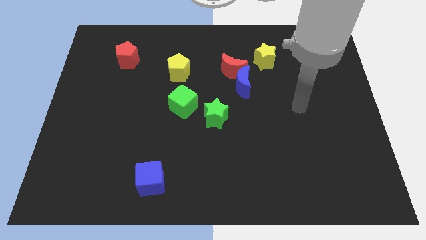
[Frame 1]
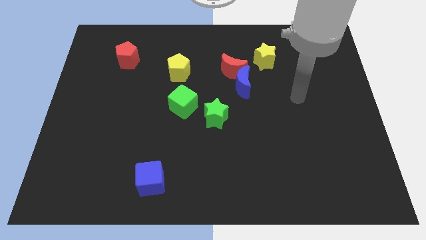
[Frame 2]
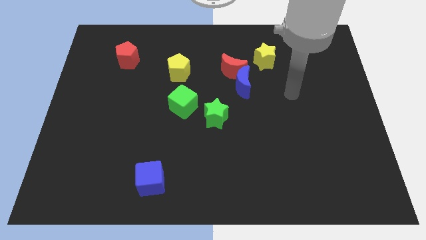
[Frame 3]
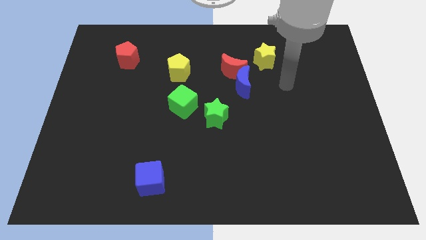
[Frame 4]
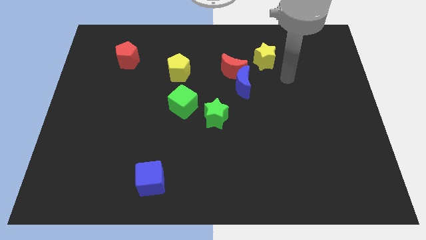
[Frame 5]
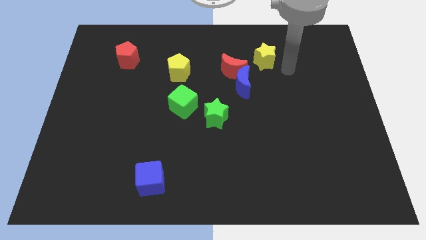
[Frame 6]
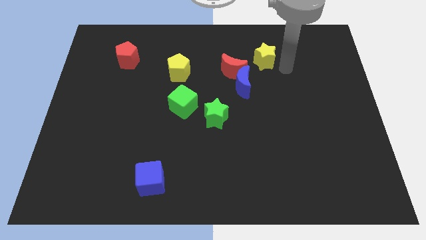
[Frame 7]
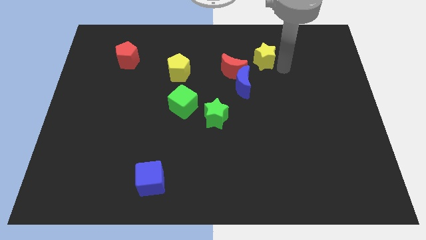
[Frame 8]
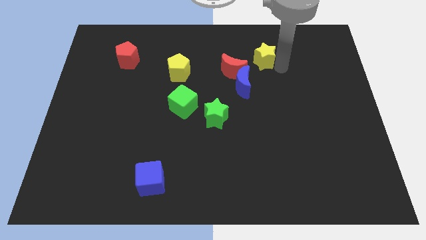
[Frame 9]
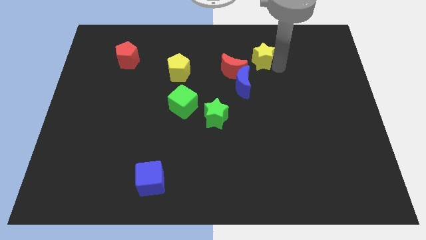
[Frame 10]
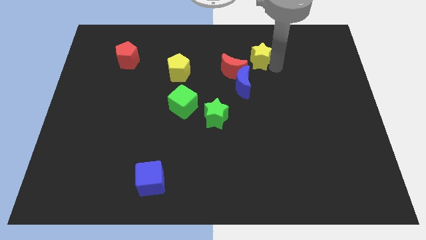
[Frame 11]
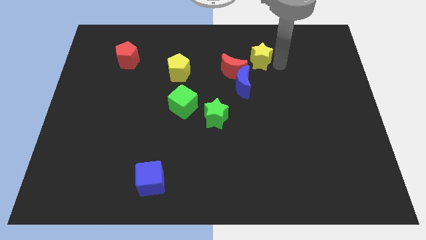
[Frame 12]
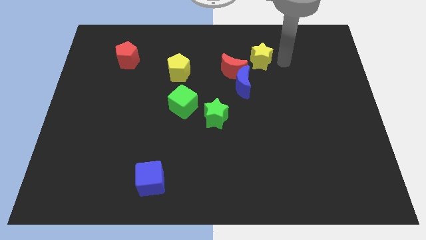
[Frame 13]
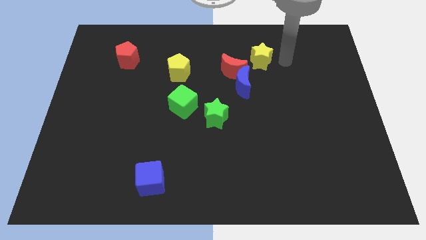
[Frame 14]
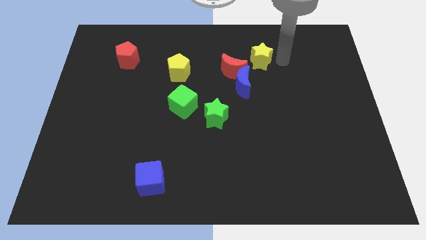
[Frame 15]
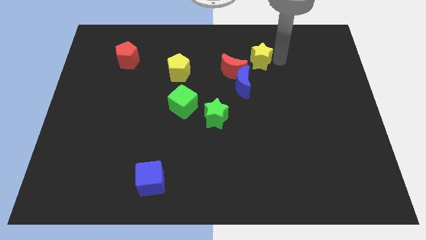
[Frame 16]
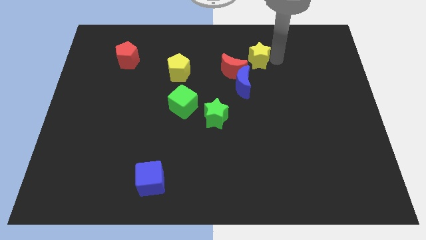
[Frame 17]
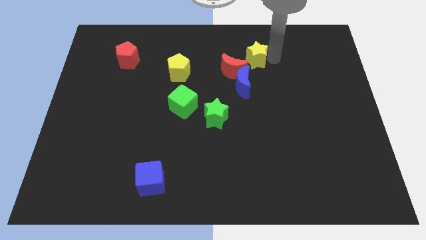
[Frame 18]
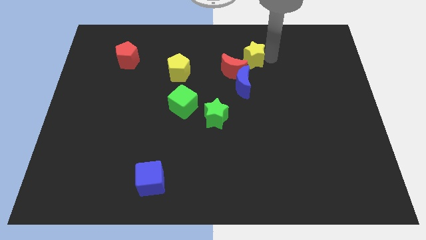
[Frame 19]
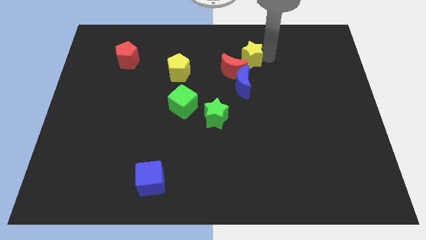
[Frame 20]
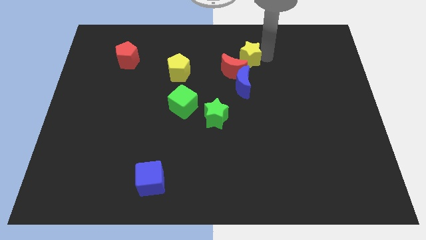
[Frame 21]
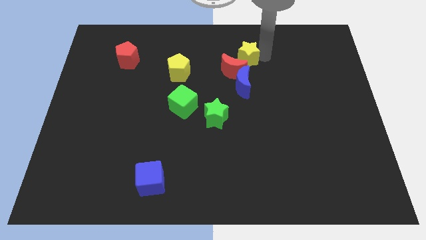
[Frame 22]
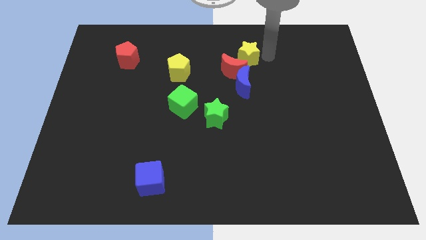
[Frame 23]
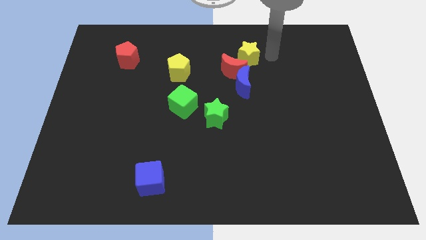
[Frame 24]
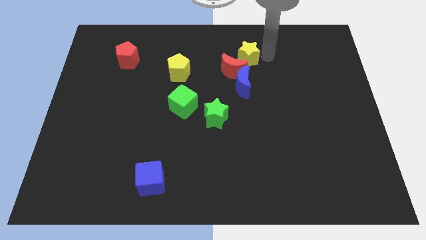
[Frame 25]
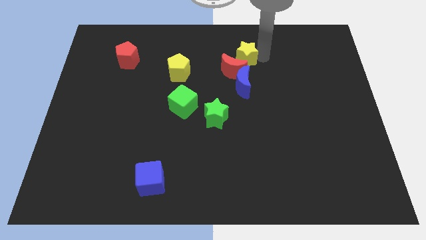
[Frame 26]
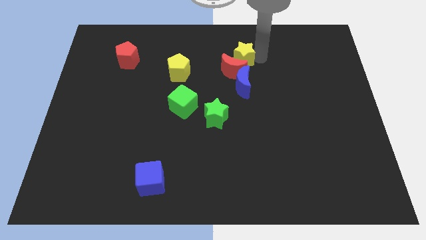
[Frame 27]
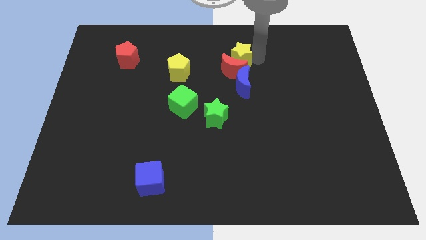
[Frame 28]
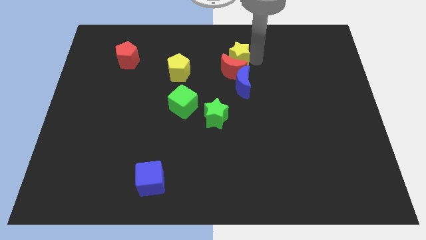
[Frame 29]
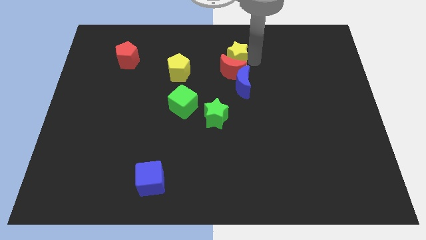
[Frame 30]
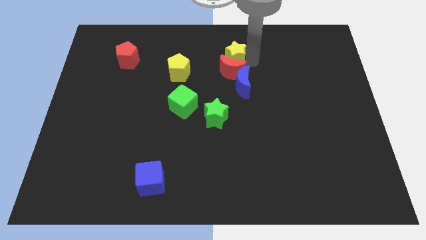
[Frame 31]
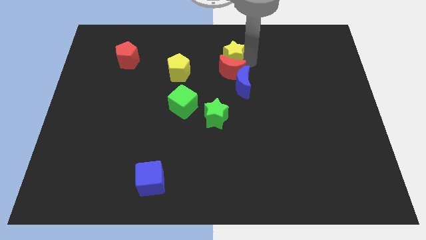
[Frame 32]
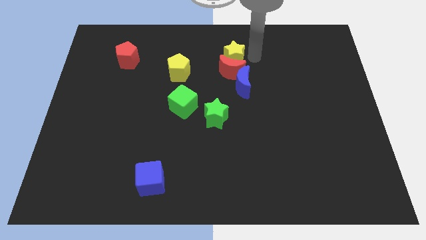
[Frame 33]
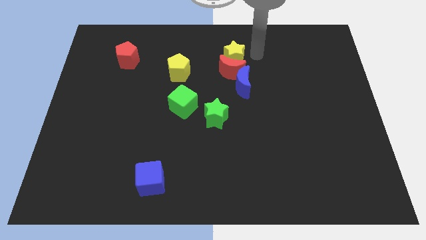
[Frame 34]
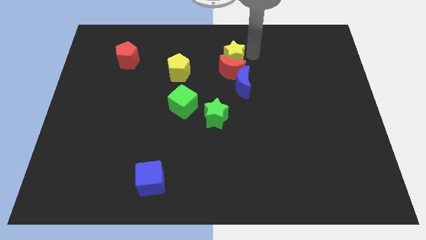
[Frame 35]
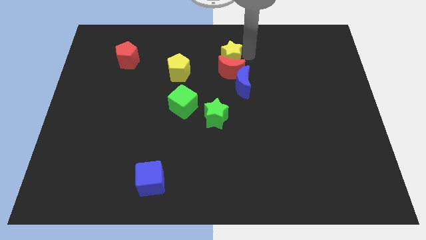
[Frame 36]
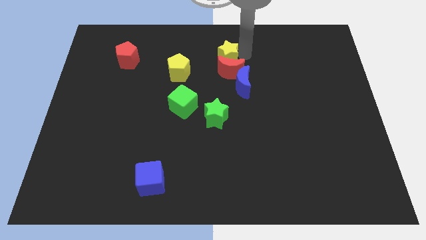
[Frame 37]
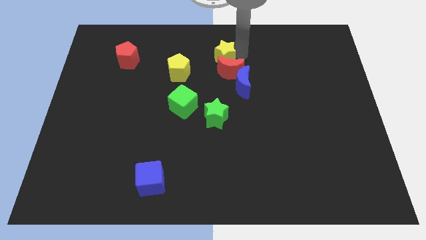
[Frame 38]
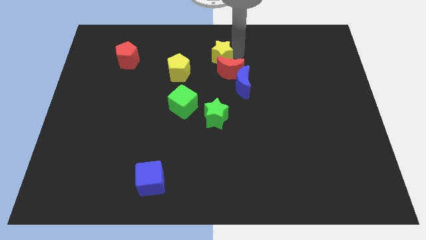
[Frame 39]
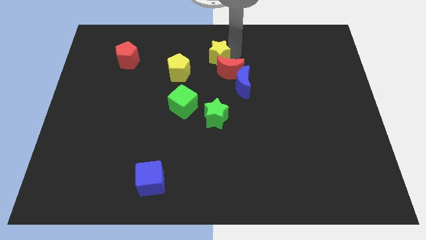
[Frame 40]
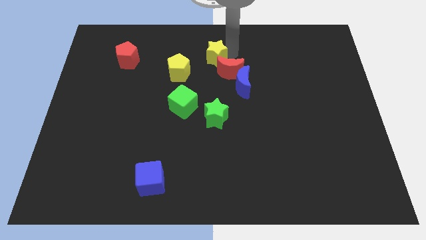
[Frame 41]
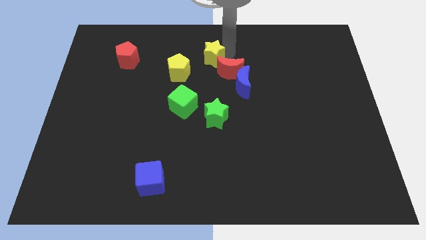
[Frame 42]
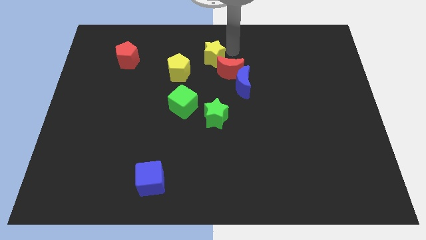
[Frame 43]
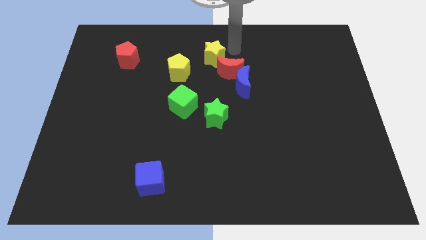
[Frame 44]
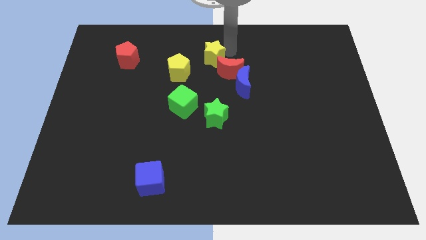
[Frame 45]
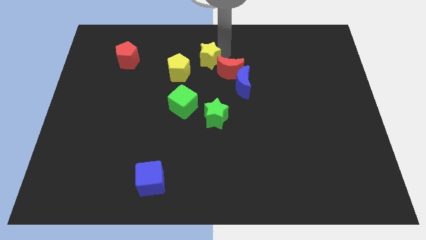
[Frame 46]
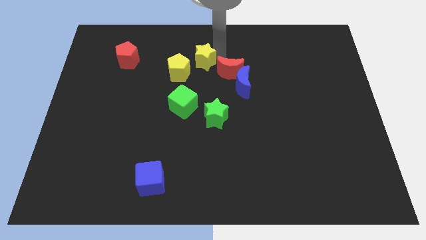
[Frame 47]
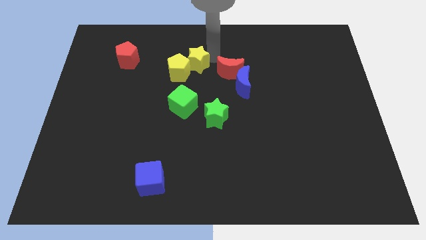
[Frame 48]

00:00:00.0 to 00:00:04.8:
put the yellow star towards the yellow pentagon

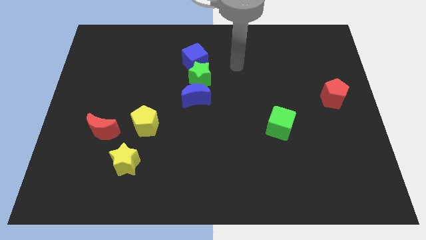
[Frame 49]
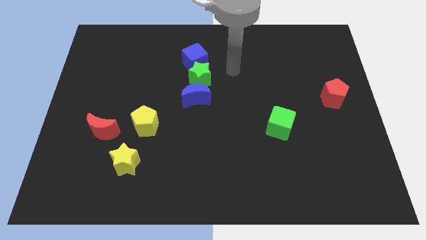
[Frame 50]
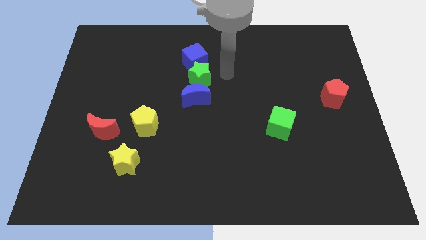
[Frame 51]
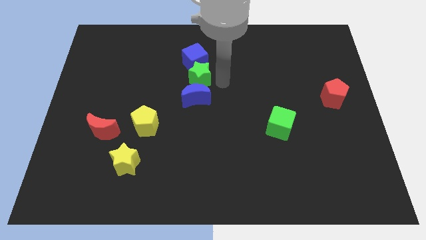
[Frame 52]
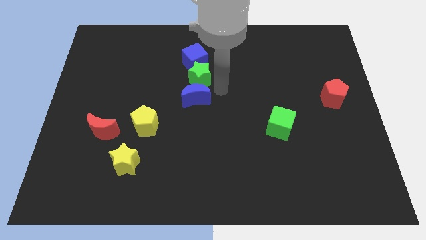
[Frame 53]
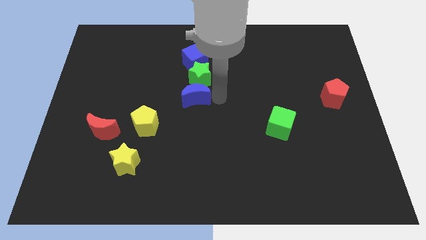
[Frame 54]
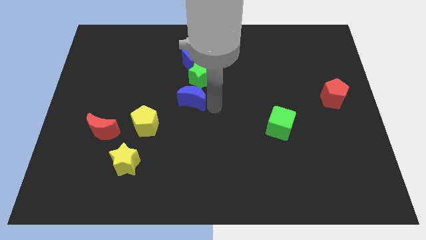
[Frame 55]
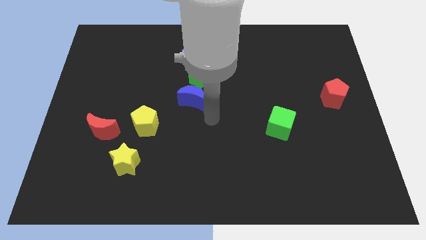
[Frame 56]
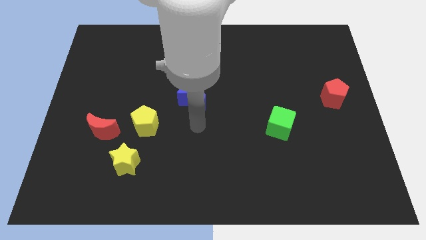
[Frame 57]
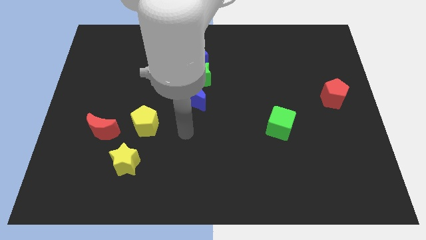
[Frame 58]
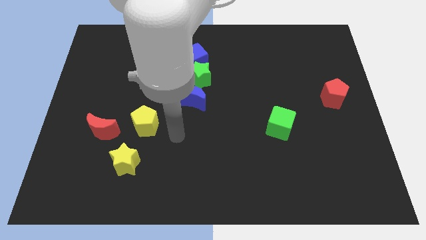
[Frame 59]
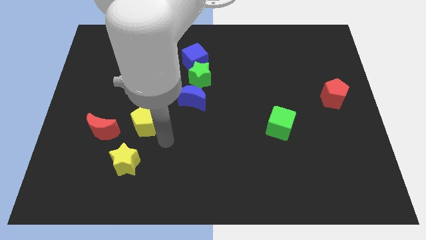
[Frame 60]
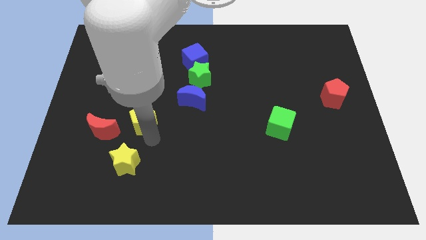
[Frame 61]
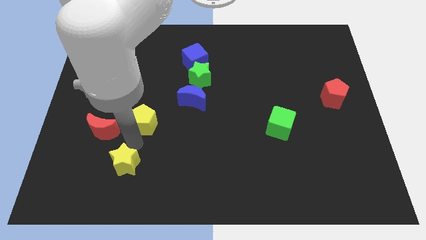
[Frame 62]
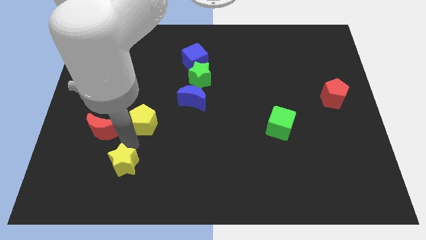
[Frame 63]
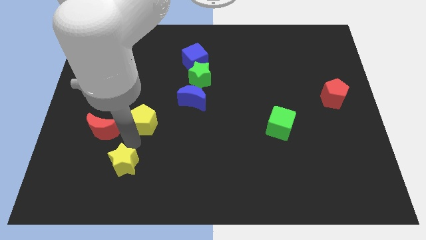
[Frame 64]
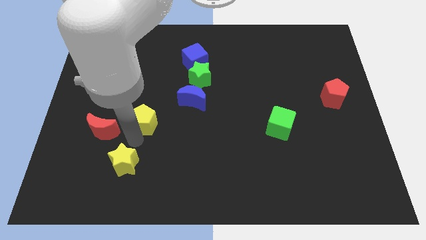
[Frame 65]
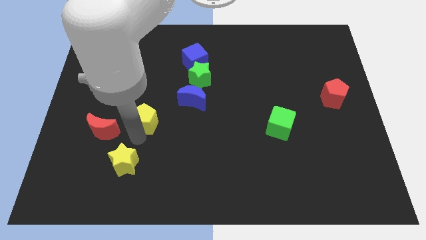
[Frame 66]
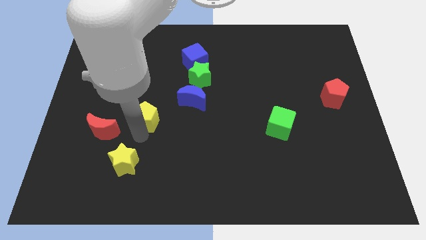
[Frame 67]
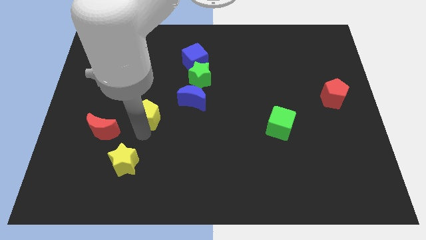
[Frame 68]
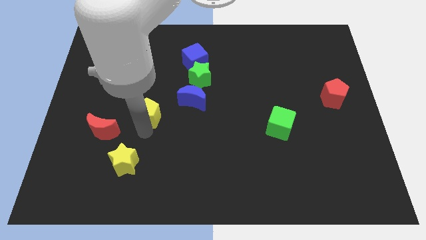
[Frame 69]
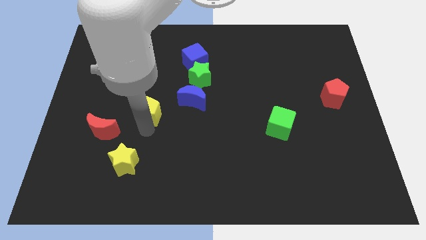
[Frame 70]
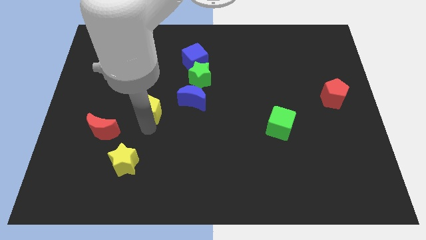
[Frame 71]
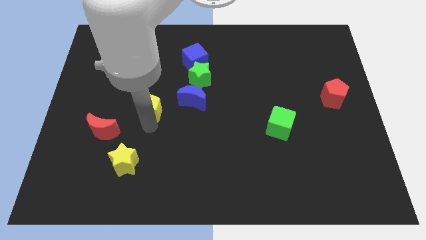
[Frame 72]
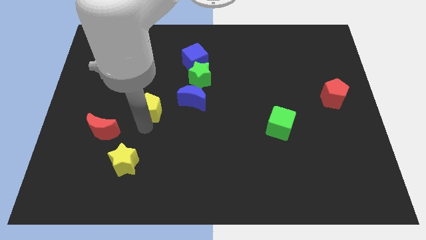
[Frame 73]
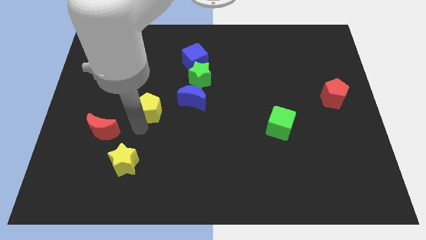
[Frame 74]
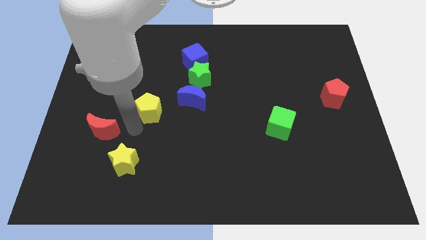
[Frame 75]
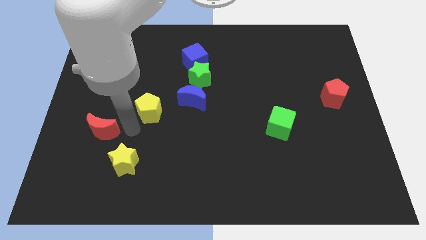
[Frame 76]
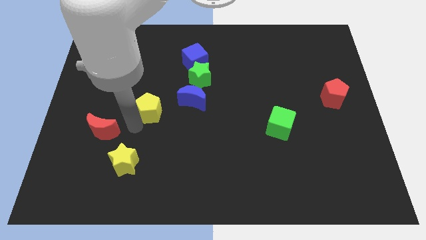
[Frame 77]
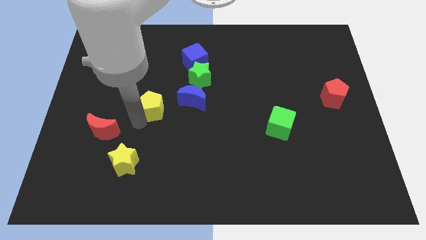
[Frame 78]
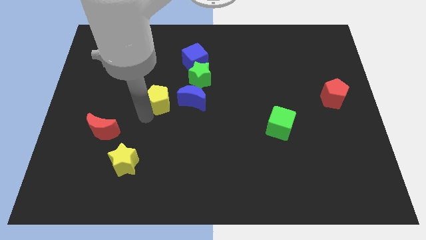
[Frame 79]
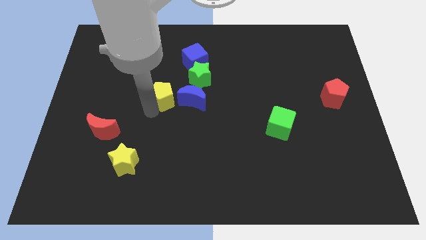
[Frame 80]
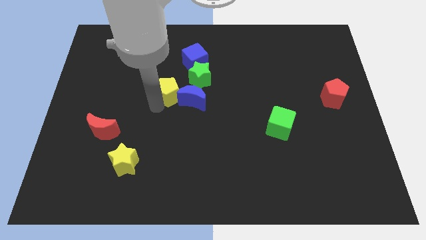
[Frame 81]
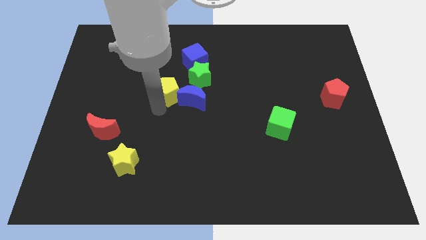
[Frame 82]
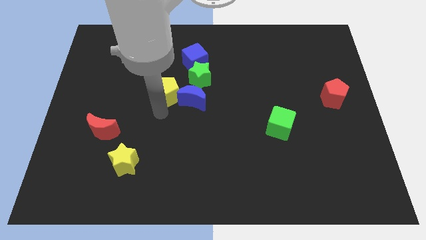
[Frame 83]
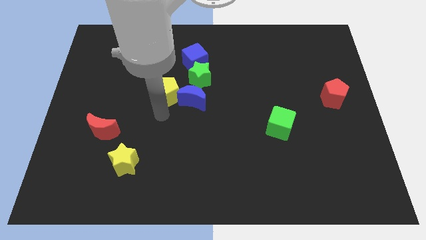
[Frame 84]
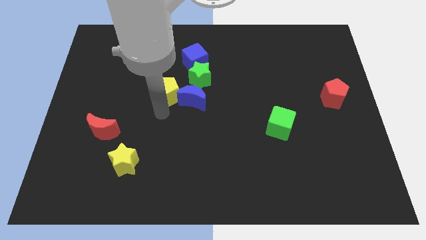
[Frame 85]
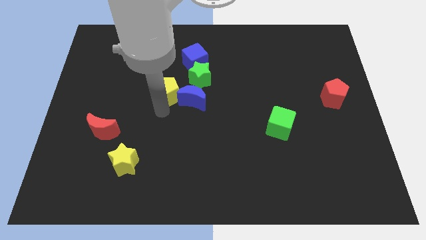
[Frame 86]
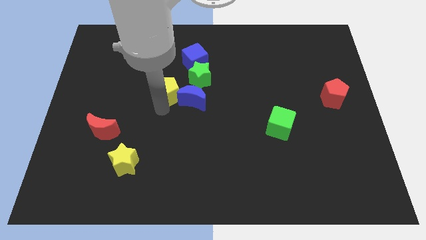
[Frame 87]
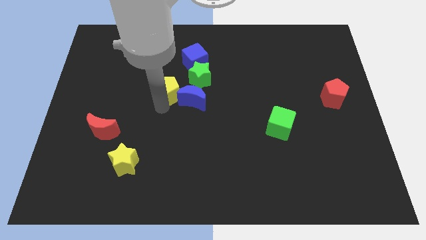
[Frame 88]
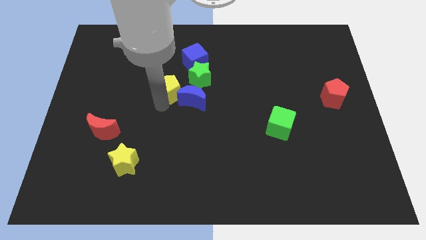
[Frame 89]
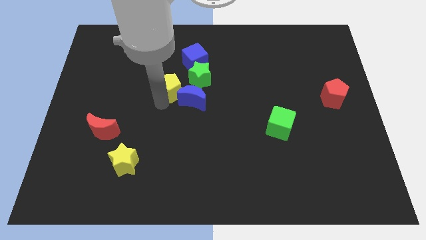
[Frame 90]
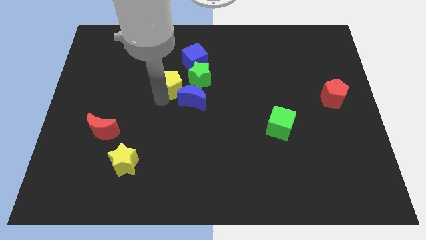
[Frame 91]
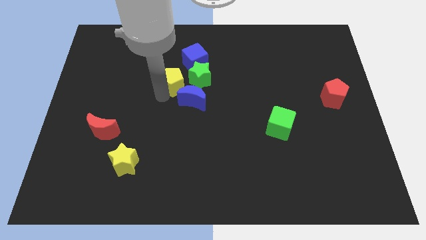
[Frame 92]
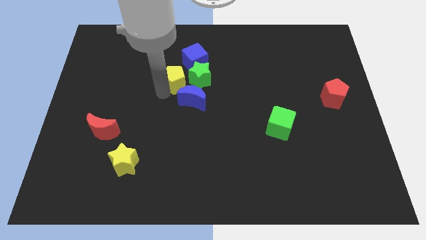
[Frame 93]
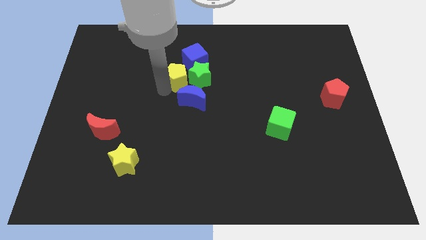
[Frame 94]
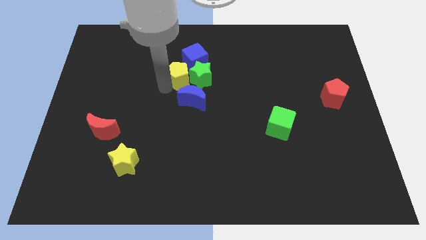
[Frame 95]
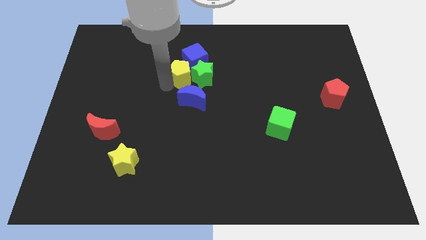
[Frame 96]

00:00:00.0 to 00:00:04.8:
slide the yellow pentagon close to the blue cube
